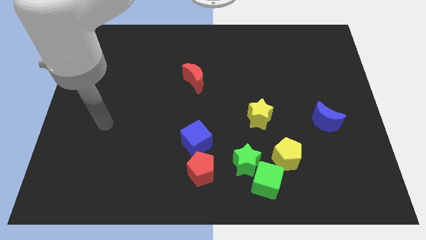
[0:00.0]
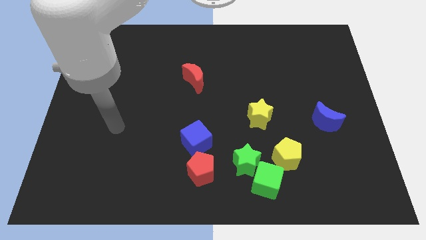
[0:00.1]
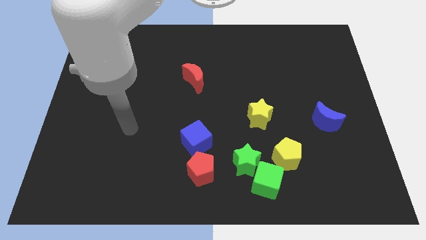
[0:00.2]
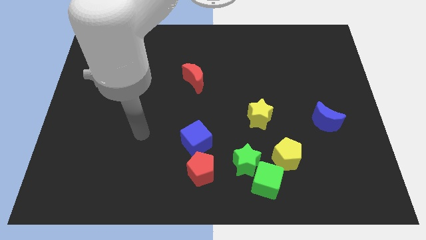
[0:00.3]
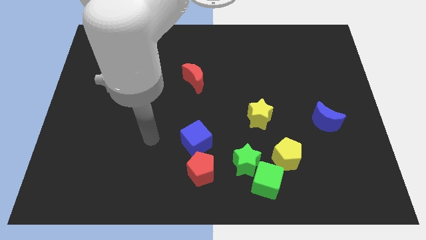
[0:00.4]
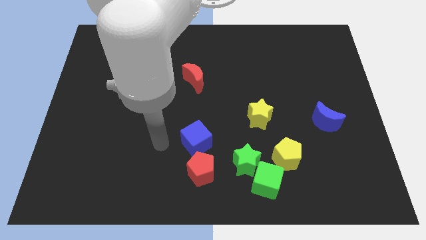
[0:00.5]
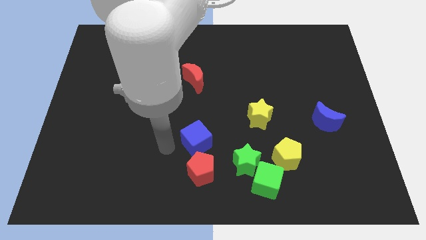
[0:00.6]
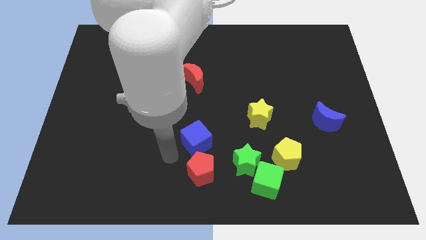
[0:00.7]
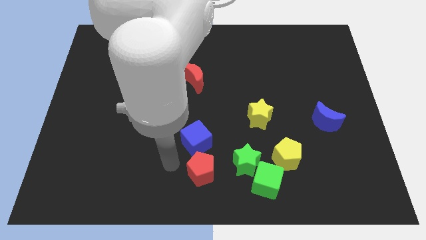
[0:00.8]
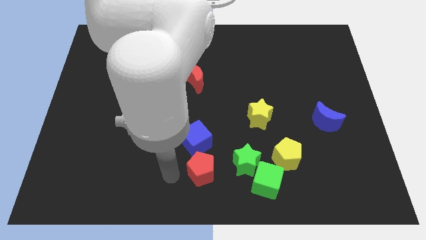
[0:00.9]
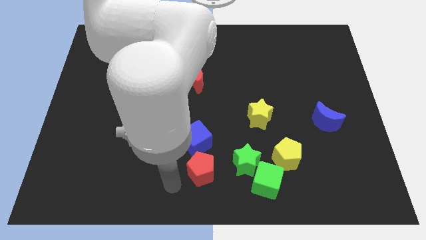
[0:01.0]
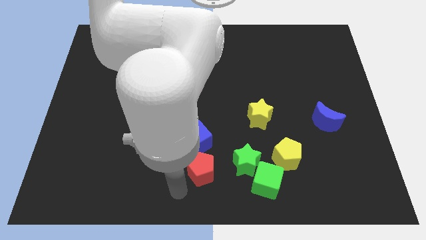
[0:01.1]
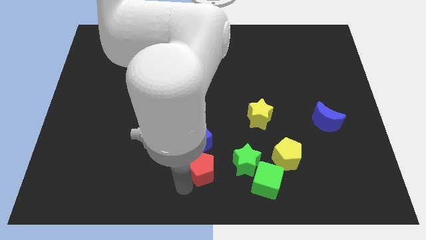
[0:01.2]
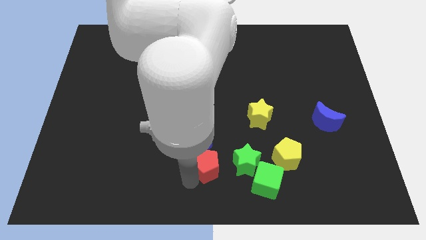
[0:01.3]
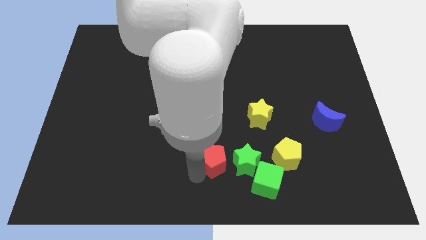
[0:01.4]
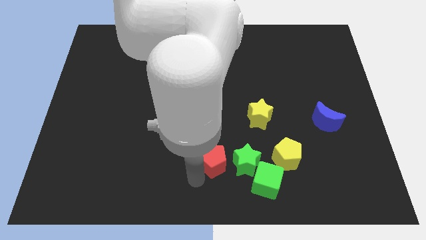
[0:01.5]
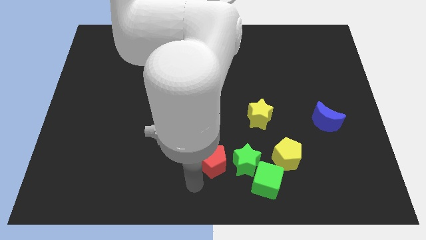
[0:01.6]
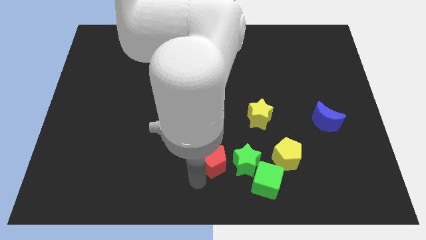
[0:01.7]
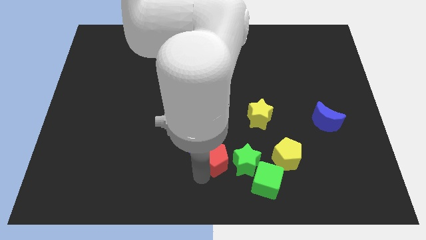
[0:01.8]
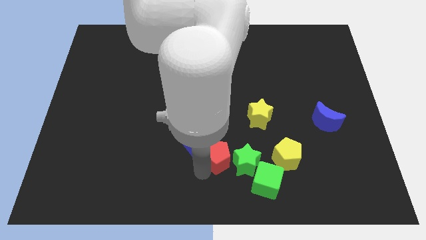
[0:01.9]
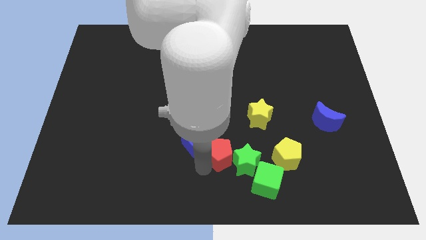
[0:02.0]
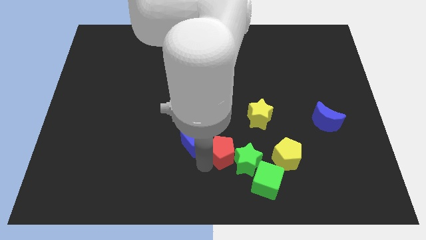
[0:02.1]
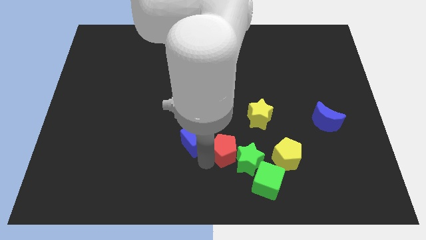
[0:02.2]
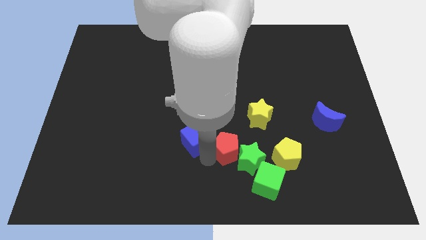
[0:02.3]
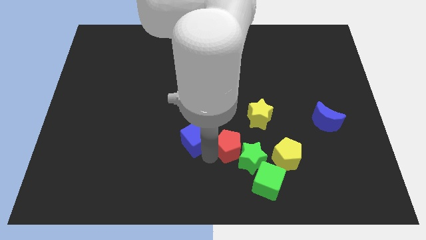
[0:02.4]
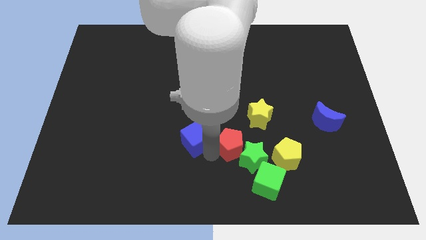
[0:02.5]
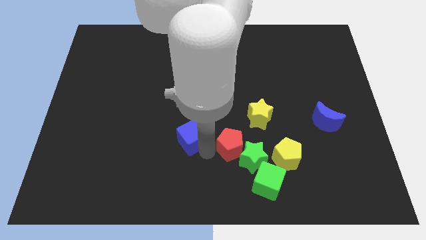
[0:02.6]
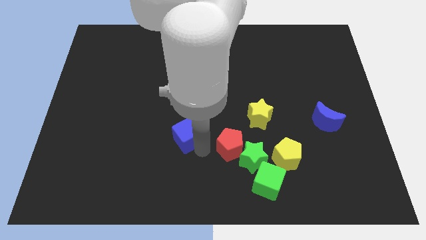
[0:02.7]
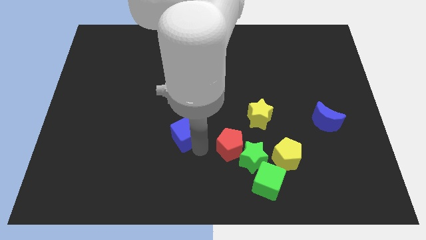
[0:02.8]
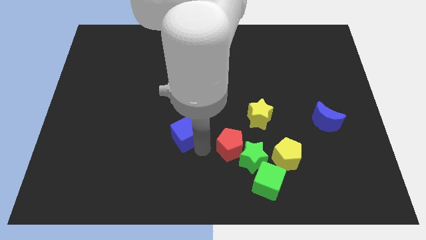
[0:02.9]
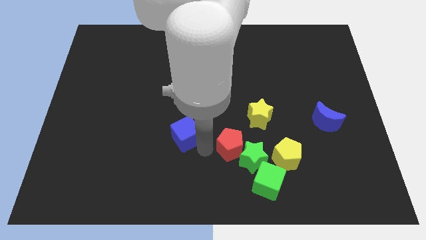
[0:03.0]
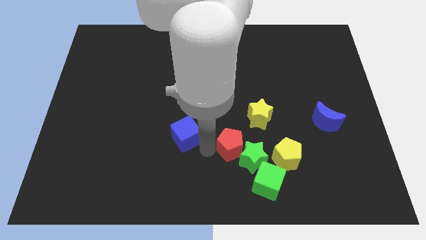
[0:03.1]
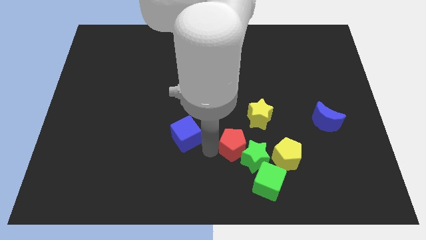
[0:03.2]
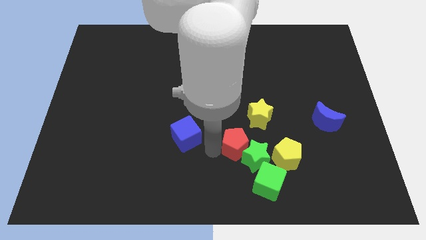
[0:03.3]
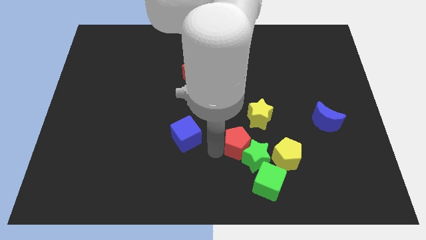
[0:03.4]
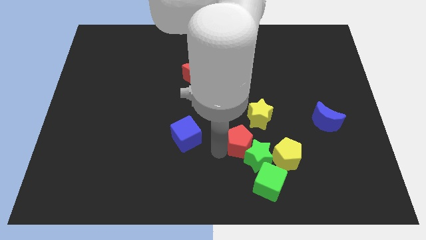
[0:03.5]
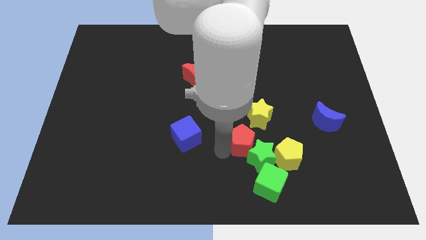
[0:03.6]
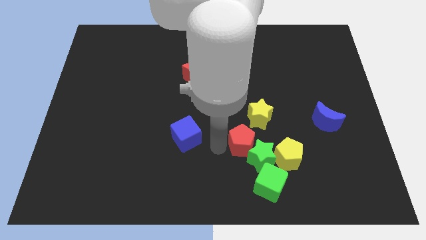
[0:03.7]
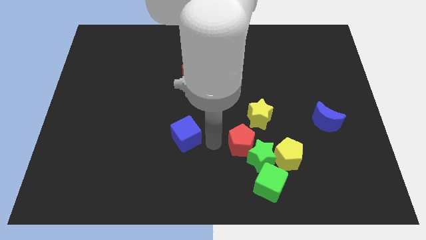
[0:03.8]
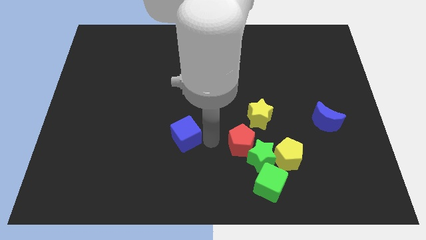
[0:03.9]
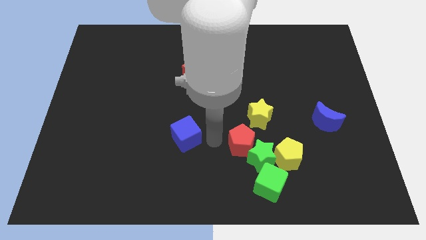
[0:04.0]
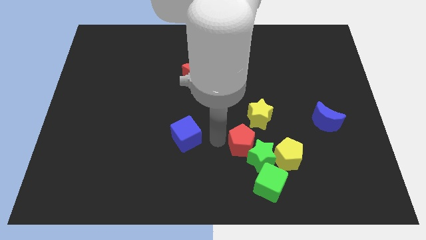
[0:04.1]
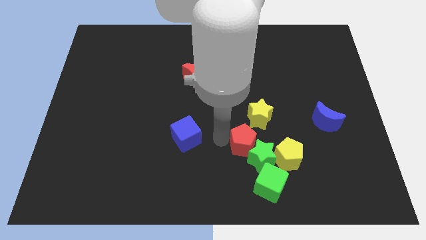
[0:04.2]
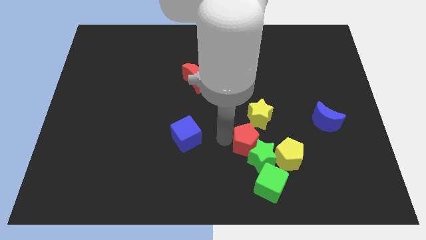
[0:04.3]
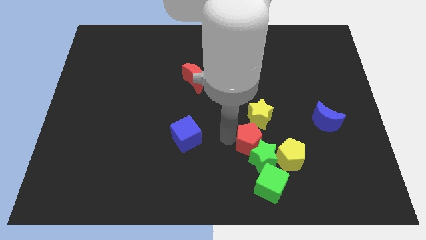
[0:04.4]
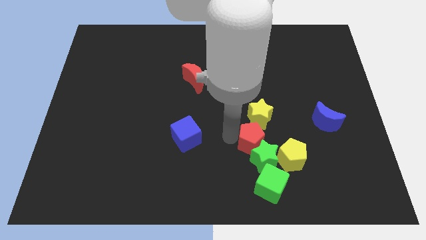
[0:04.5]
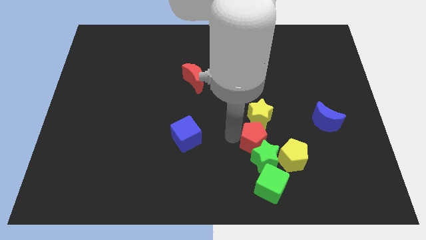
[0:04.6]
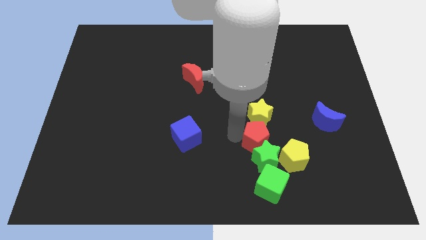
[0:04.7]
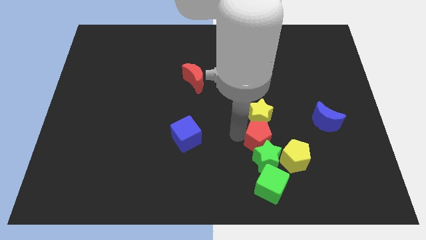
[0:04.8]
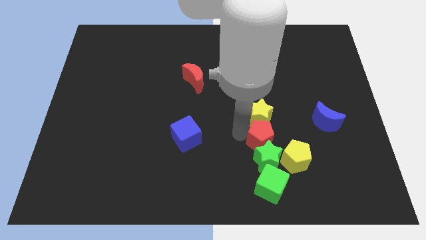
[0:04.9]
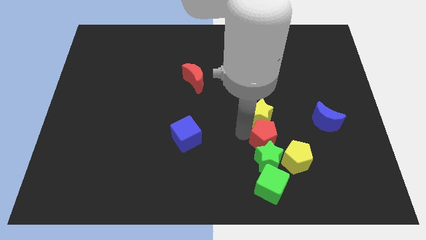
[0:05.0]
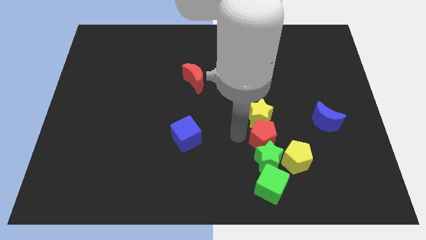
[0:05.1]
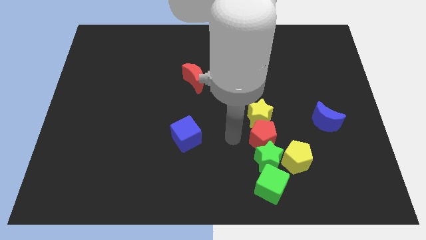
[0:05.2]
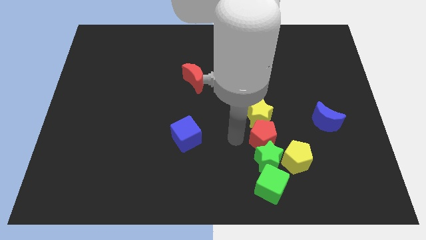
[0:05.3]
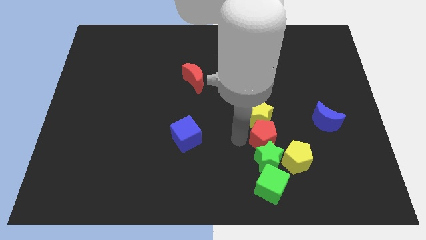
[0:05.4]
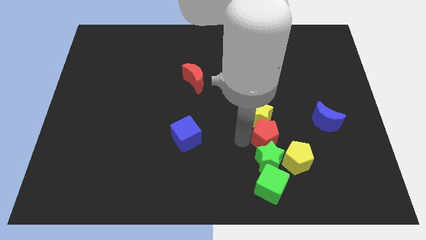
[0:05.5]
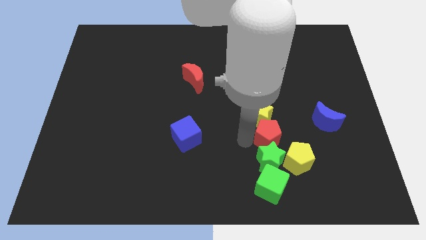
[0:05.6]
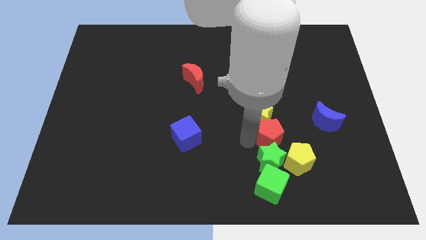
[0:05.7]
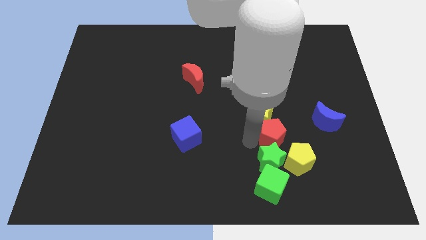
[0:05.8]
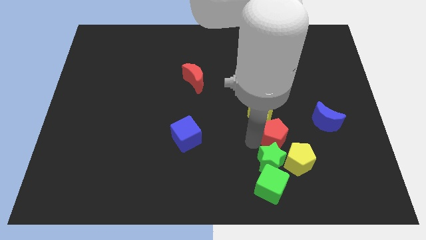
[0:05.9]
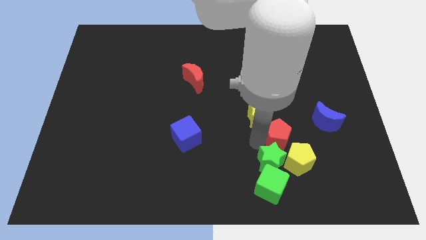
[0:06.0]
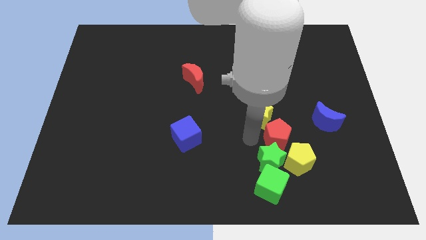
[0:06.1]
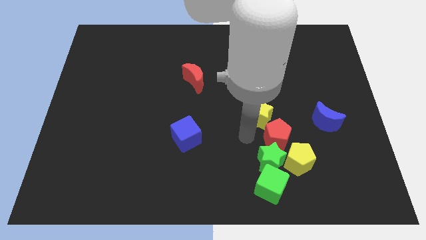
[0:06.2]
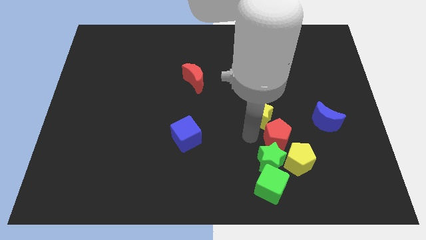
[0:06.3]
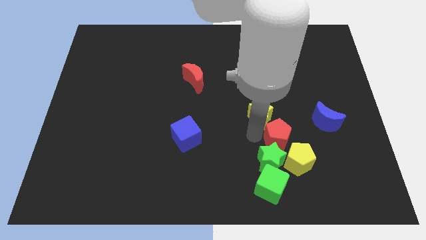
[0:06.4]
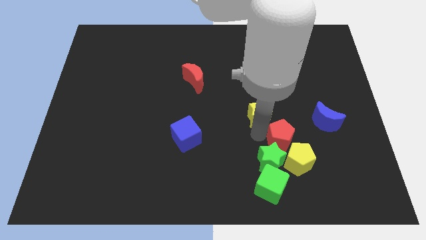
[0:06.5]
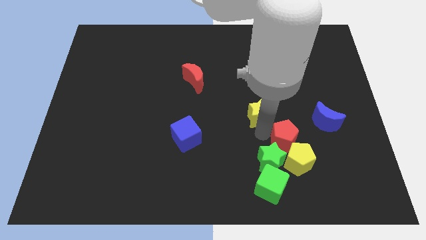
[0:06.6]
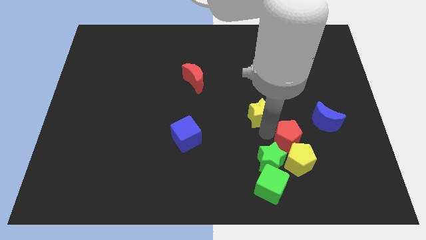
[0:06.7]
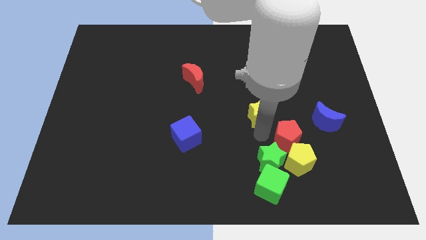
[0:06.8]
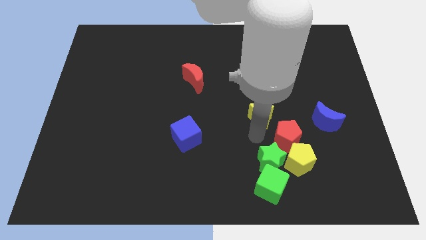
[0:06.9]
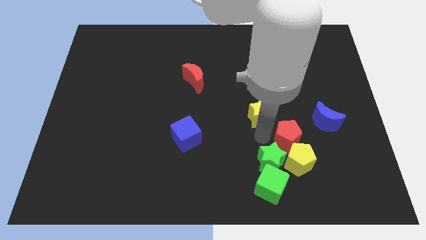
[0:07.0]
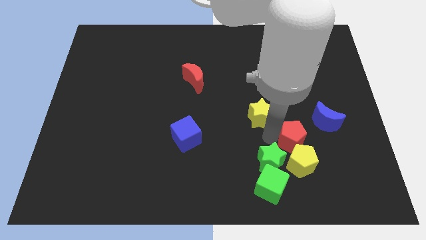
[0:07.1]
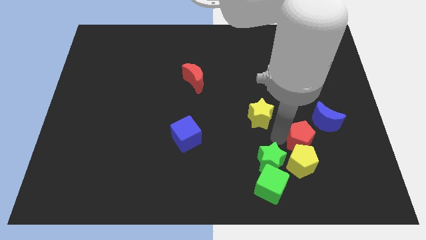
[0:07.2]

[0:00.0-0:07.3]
push the red pentagon to the top right of the yellow pentagon

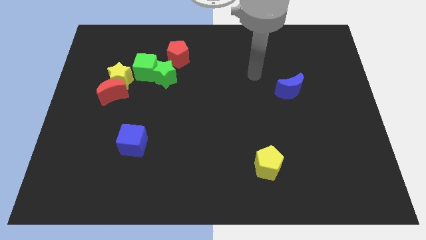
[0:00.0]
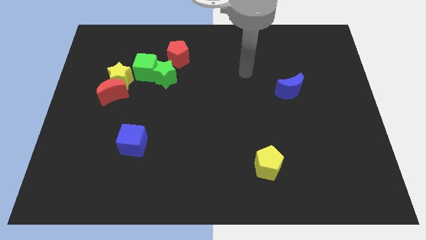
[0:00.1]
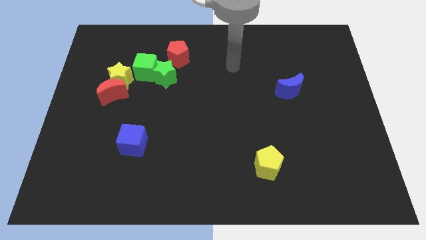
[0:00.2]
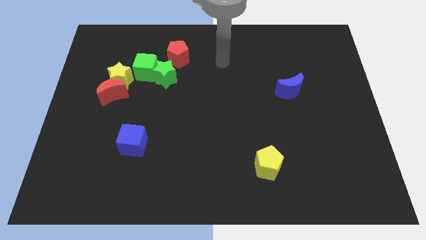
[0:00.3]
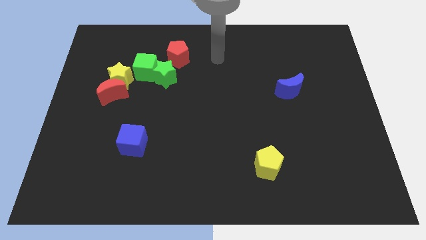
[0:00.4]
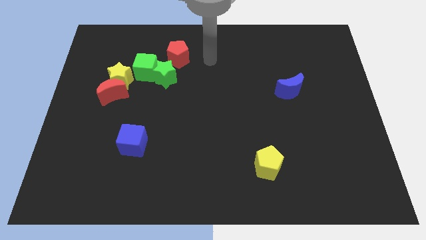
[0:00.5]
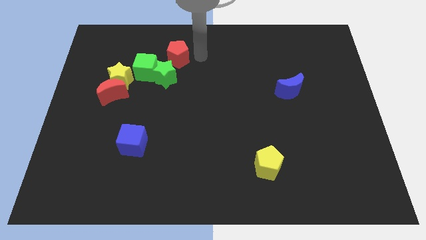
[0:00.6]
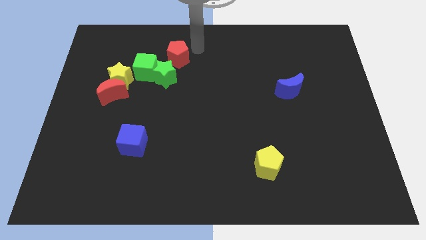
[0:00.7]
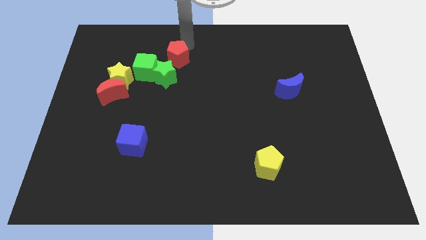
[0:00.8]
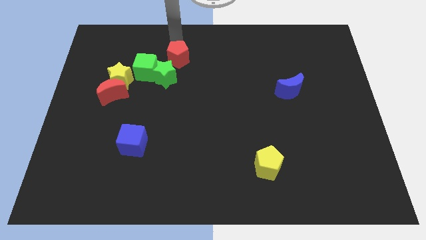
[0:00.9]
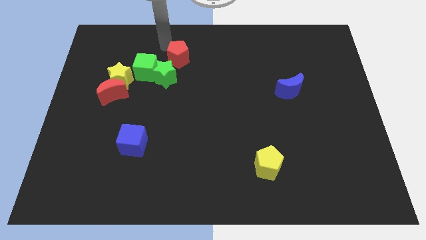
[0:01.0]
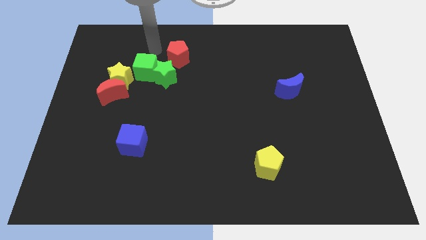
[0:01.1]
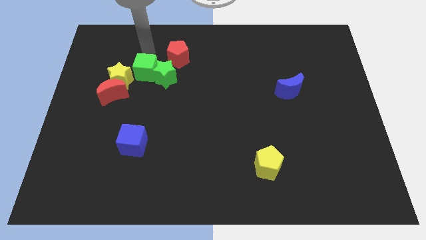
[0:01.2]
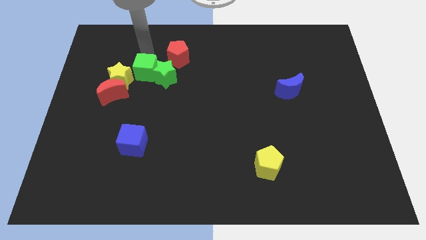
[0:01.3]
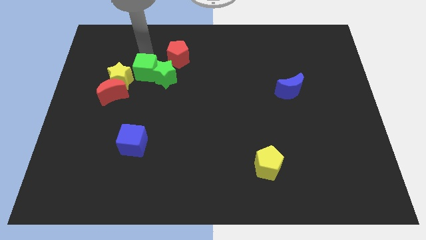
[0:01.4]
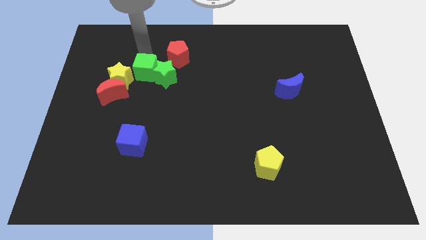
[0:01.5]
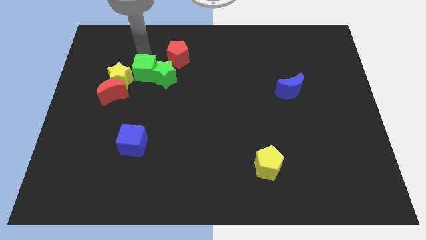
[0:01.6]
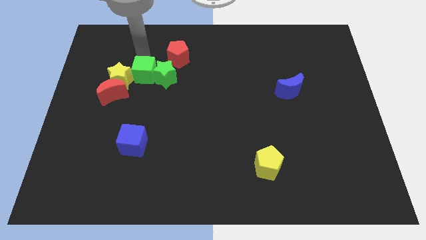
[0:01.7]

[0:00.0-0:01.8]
move the green cube diagonally down and to the left of the green star
